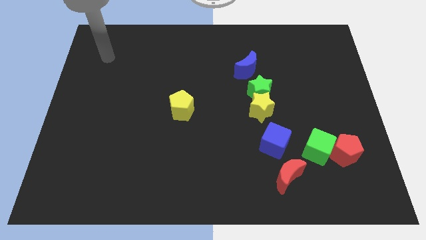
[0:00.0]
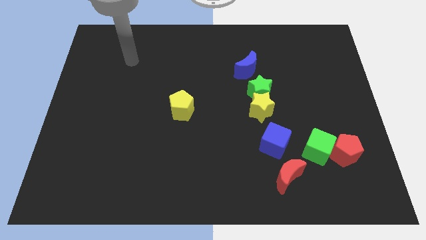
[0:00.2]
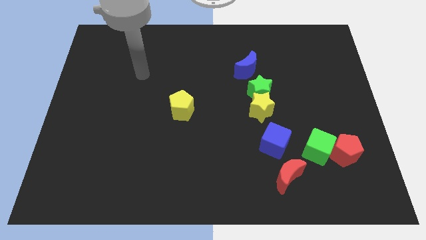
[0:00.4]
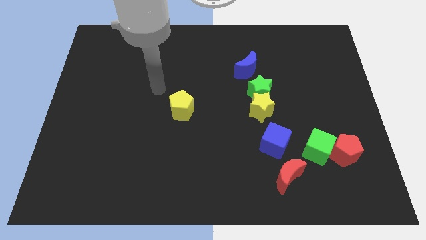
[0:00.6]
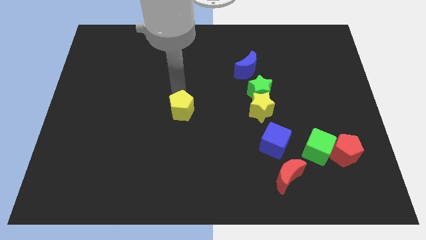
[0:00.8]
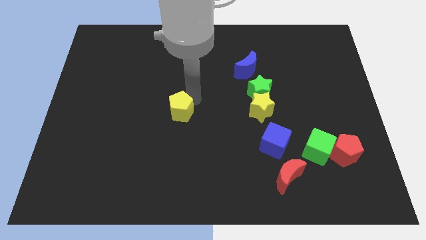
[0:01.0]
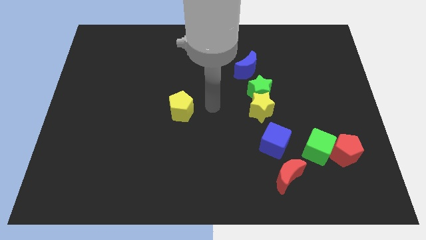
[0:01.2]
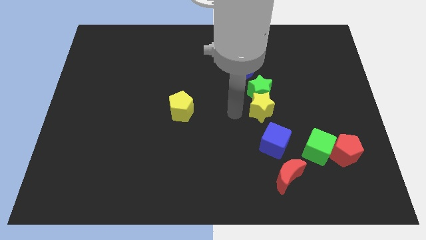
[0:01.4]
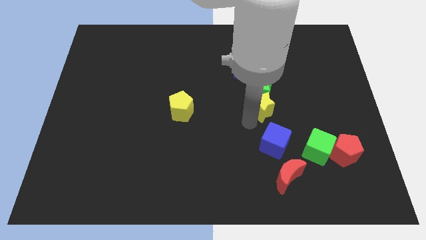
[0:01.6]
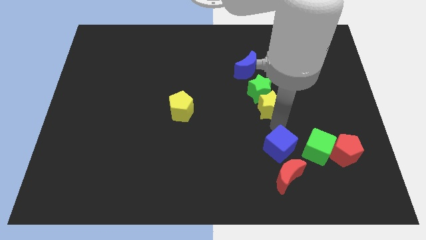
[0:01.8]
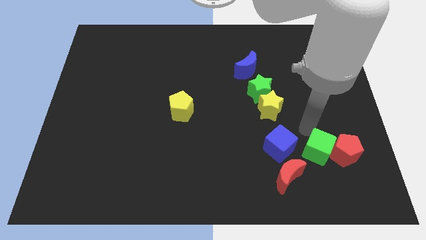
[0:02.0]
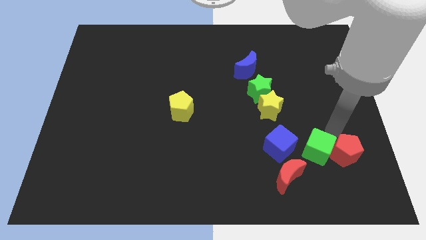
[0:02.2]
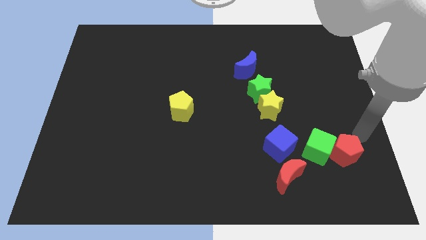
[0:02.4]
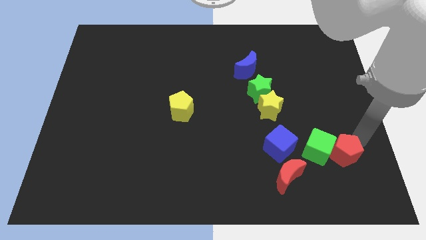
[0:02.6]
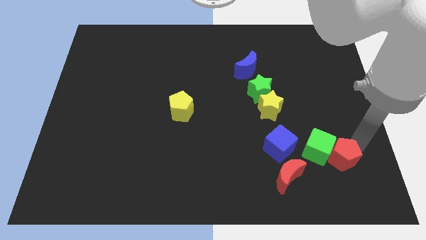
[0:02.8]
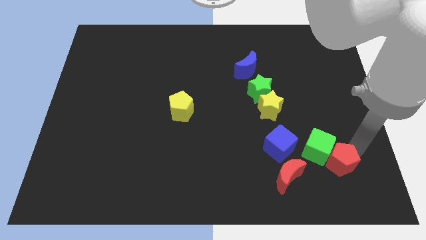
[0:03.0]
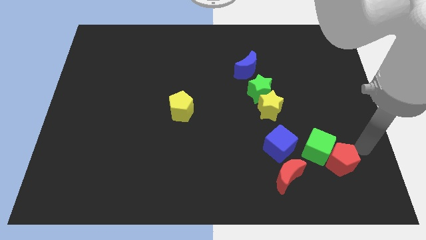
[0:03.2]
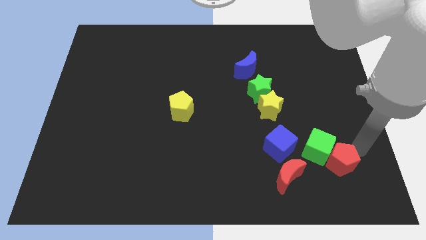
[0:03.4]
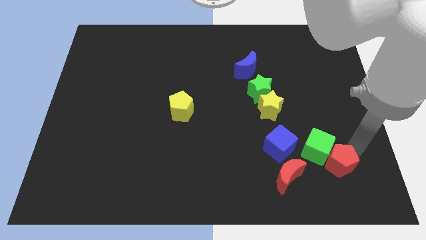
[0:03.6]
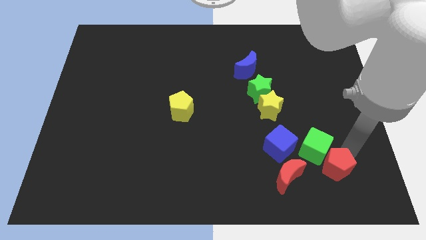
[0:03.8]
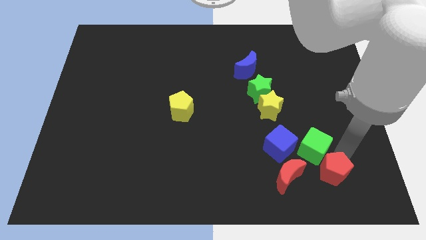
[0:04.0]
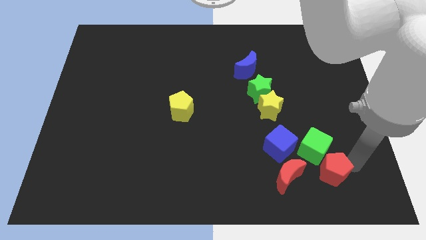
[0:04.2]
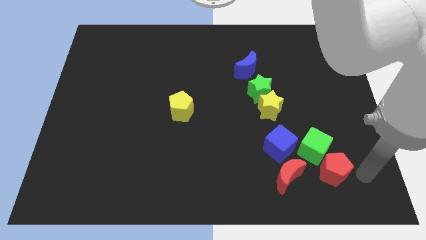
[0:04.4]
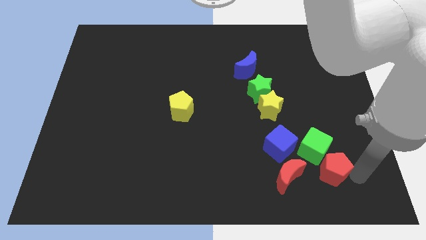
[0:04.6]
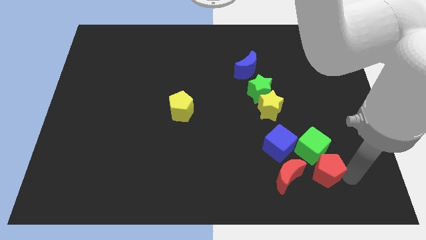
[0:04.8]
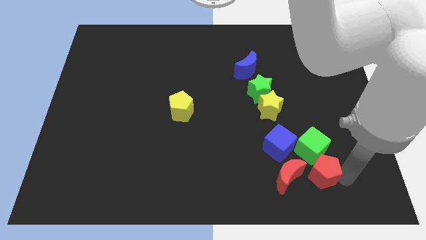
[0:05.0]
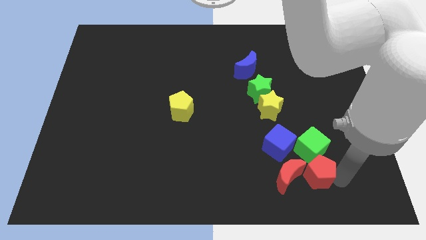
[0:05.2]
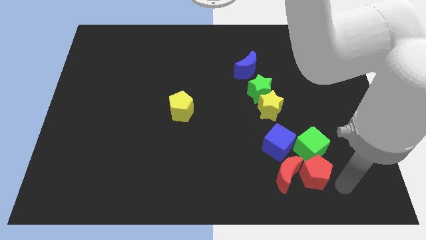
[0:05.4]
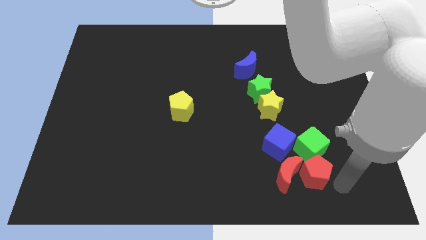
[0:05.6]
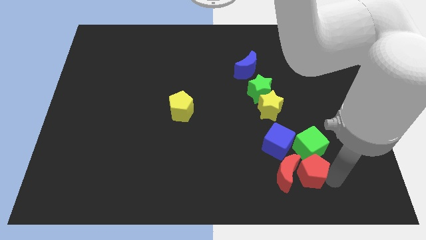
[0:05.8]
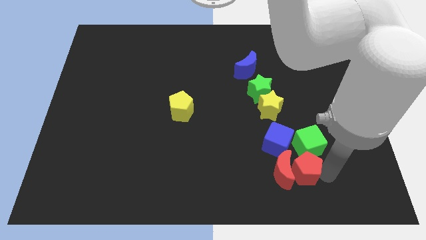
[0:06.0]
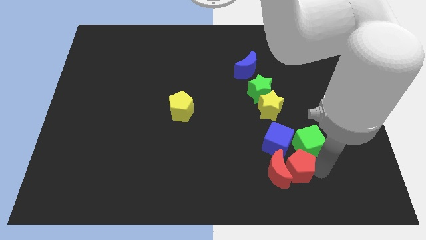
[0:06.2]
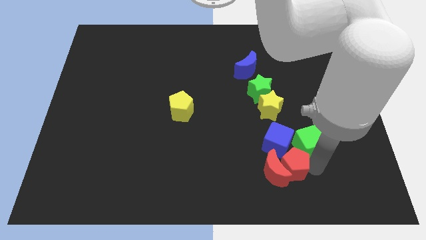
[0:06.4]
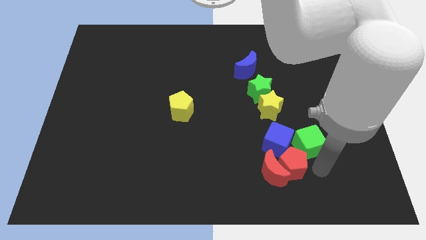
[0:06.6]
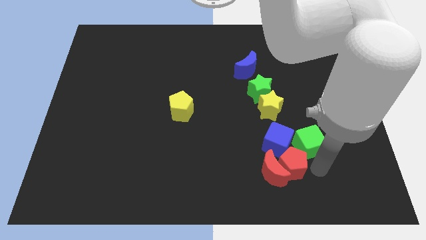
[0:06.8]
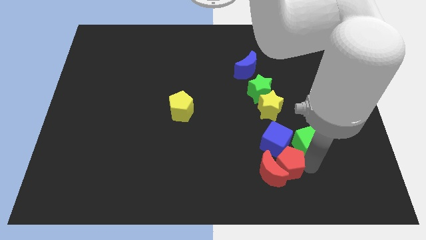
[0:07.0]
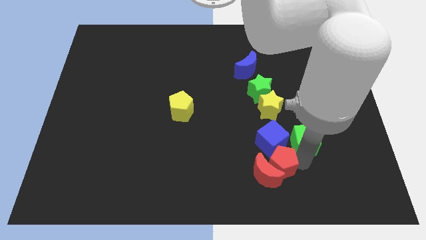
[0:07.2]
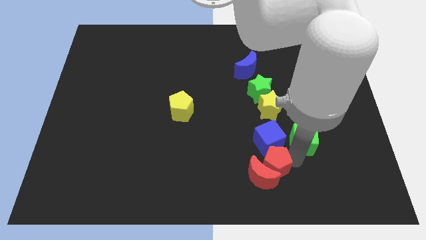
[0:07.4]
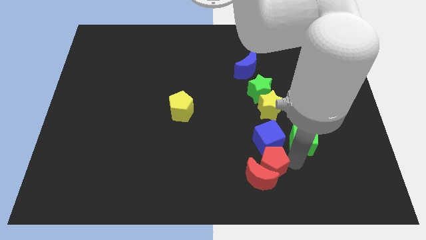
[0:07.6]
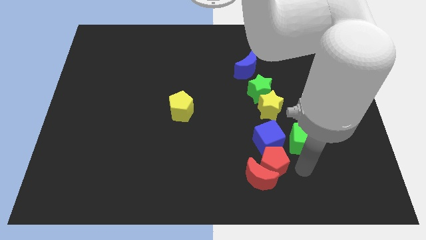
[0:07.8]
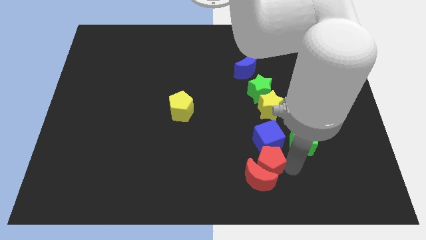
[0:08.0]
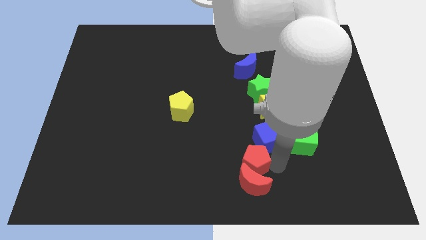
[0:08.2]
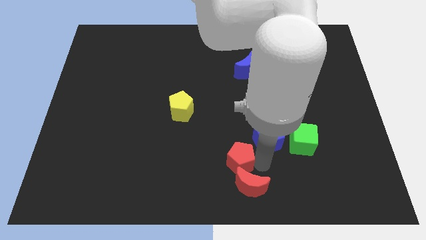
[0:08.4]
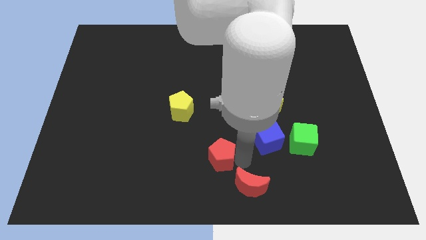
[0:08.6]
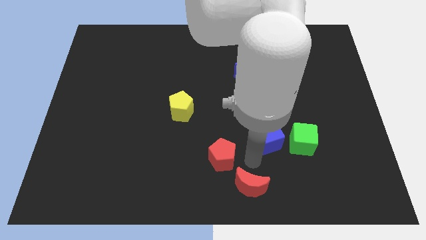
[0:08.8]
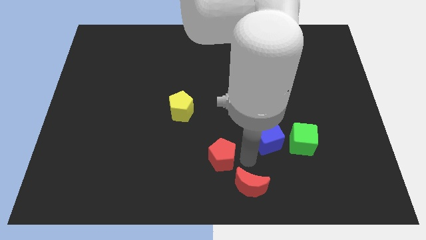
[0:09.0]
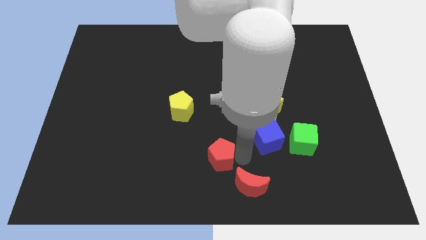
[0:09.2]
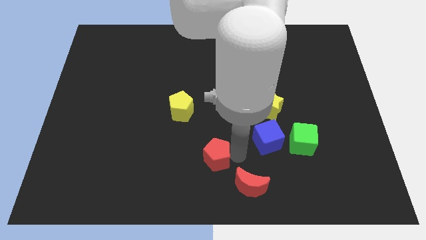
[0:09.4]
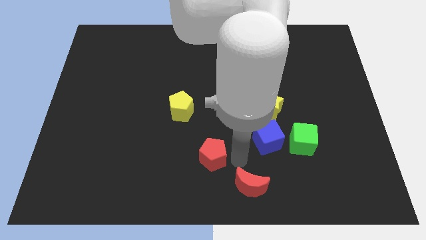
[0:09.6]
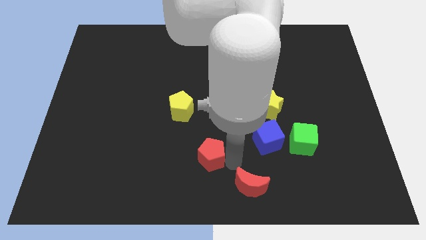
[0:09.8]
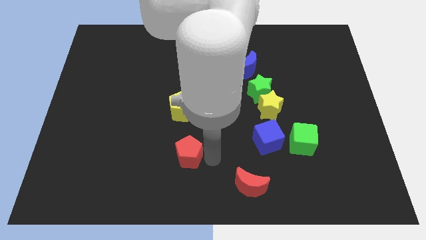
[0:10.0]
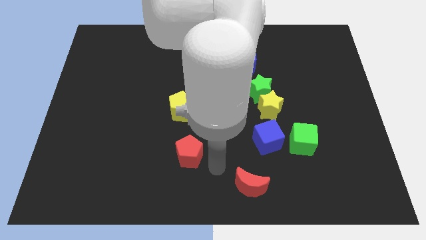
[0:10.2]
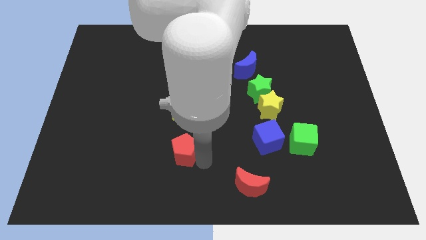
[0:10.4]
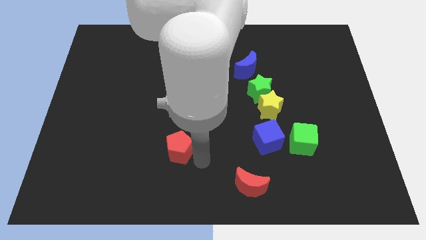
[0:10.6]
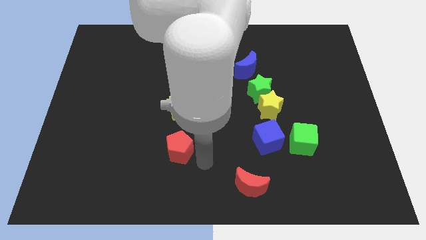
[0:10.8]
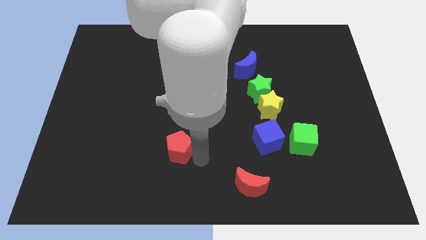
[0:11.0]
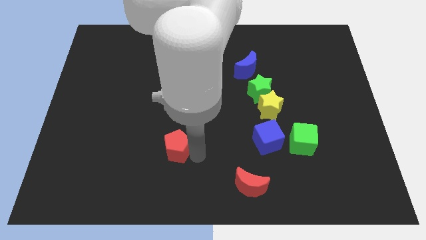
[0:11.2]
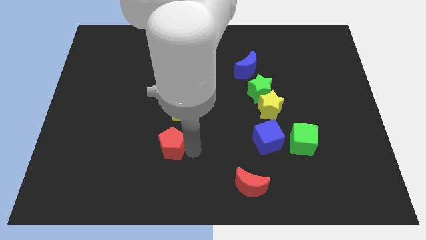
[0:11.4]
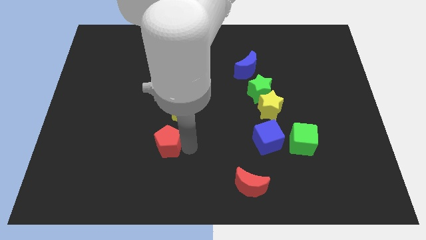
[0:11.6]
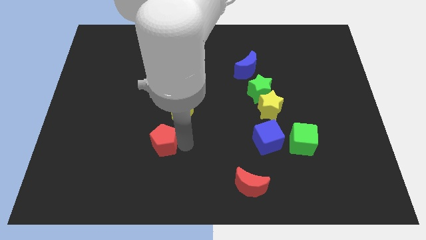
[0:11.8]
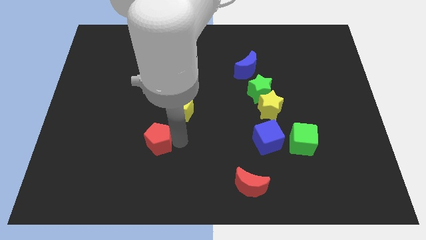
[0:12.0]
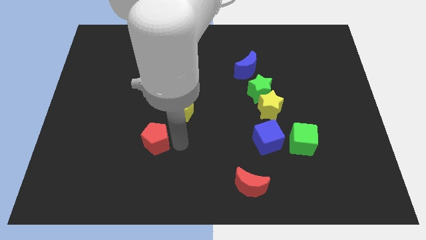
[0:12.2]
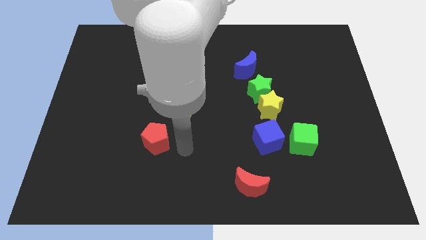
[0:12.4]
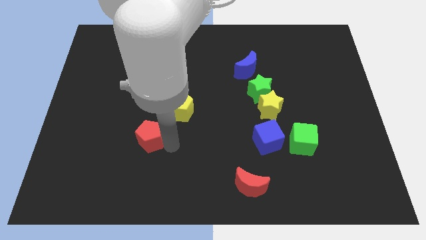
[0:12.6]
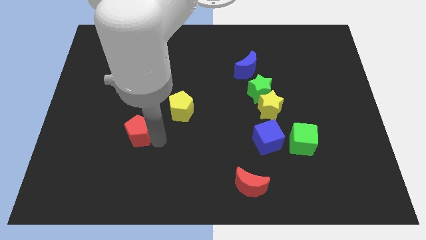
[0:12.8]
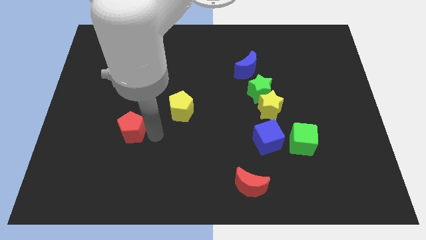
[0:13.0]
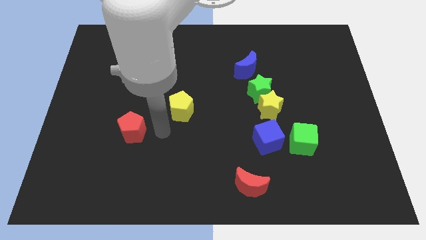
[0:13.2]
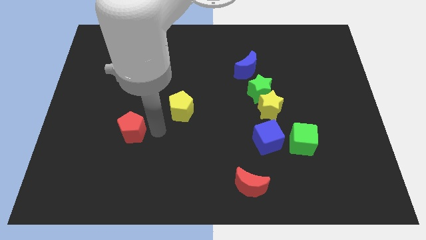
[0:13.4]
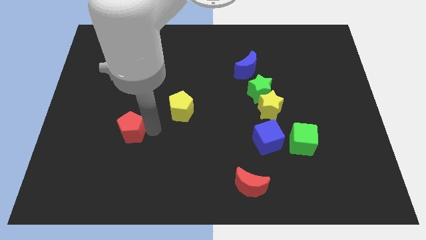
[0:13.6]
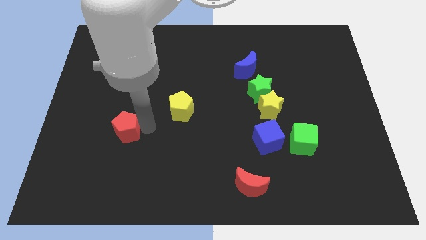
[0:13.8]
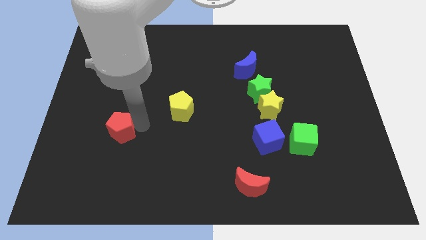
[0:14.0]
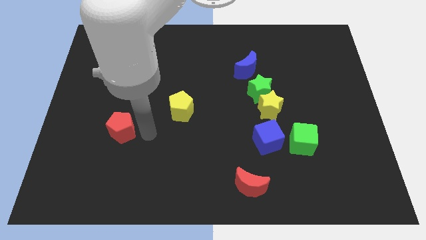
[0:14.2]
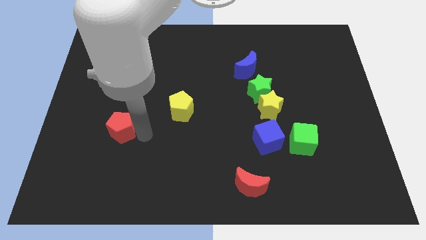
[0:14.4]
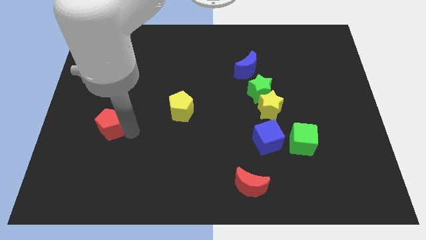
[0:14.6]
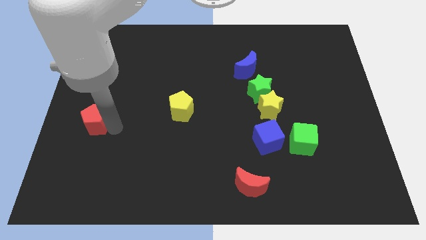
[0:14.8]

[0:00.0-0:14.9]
push the red pentagon to the left side of the board
